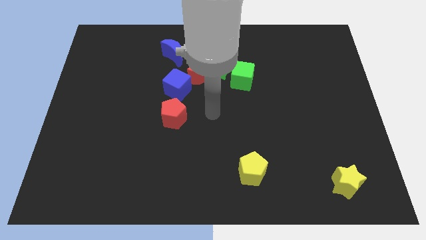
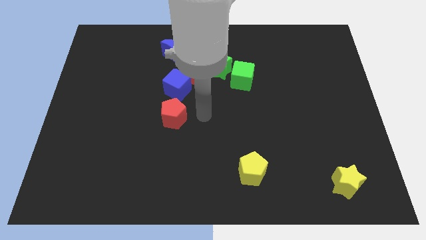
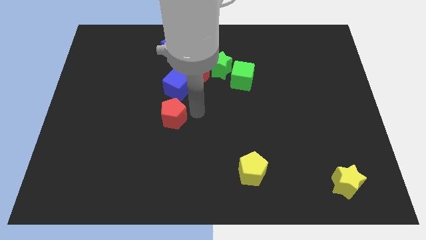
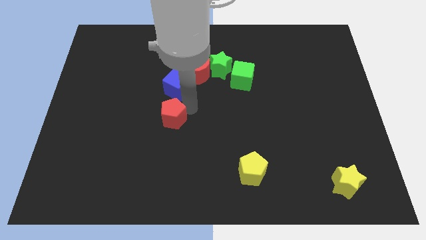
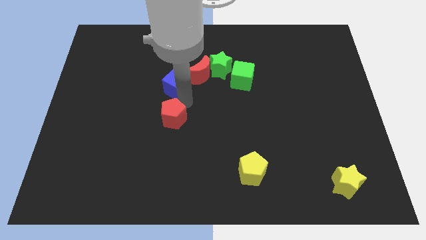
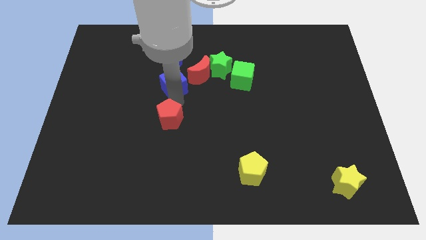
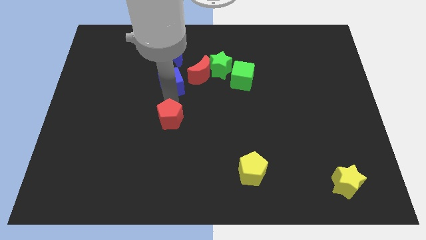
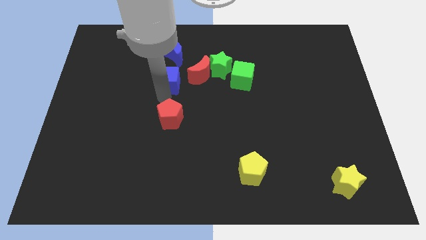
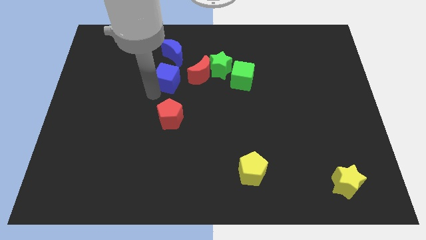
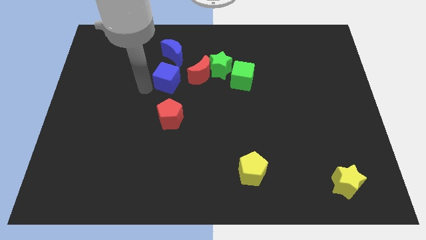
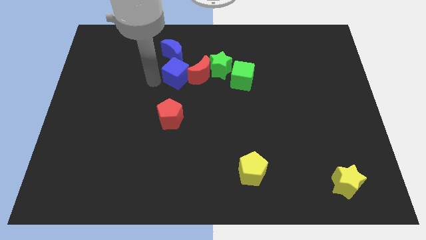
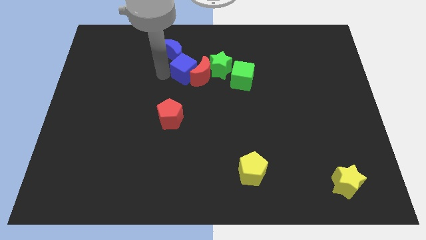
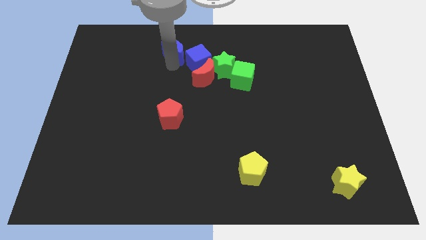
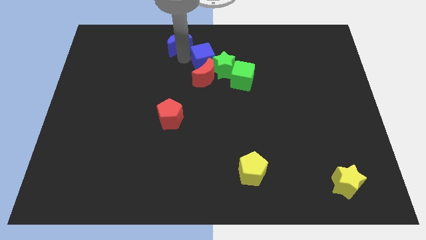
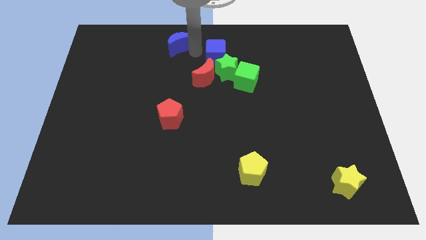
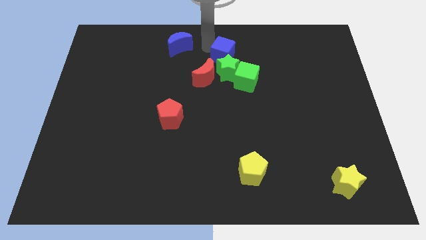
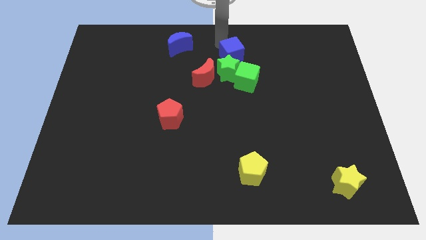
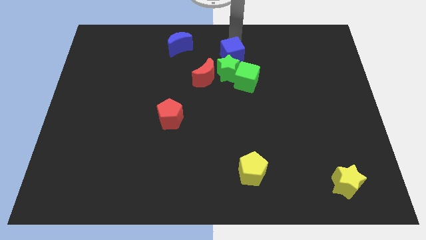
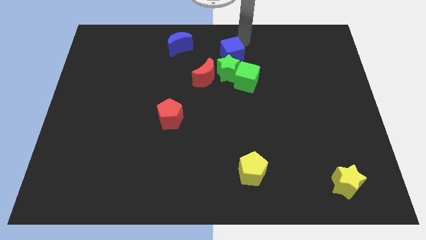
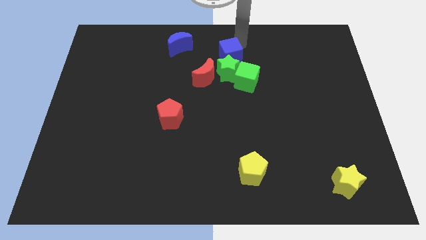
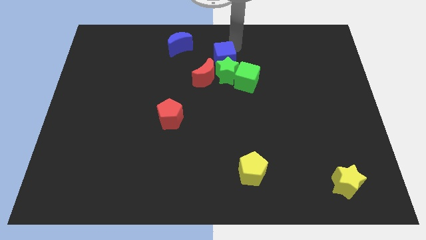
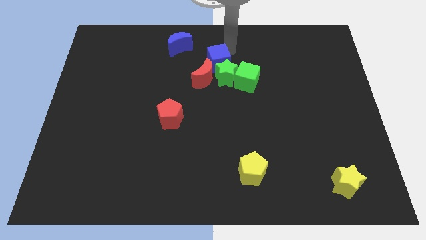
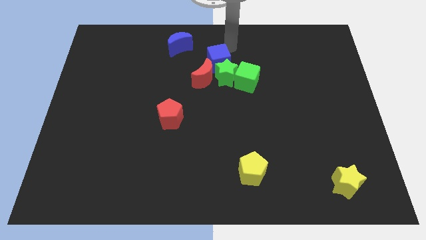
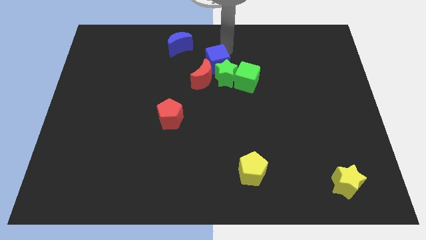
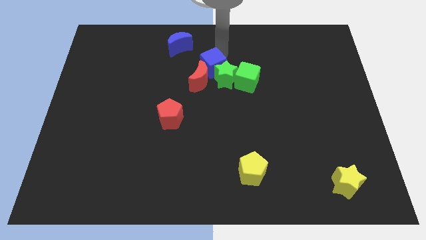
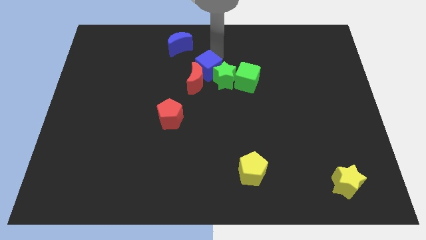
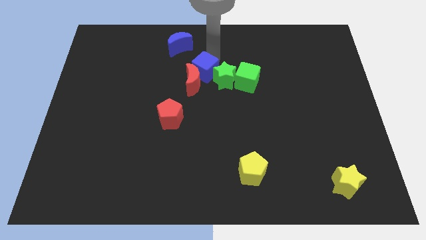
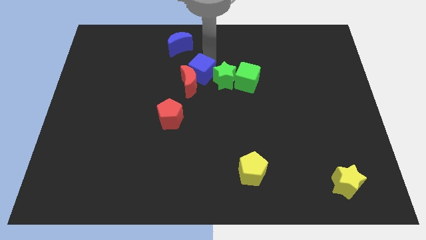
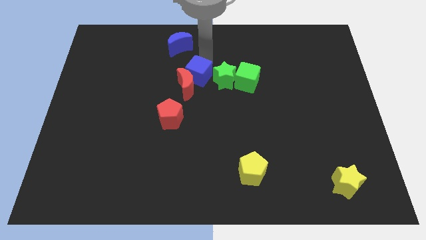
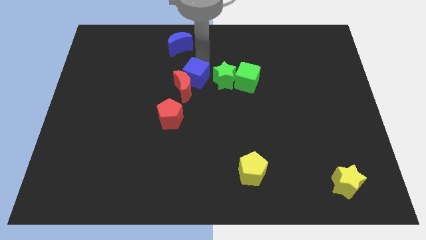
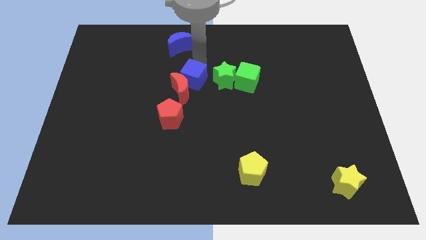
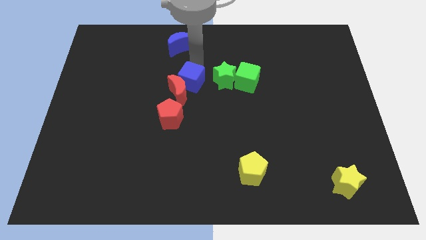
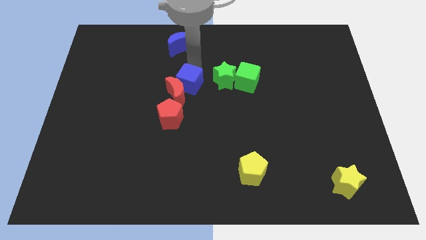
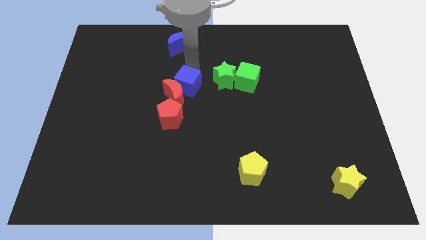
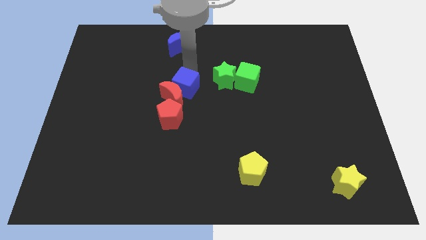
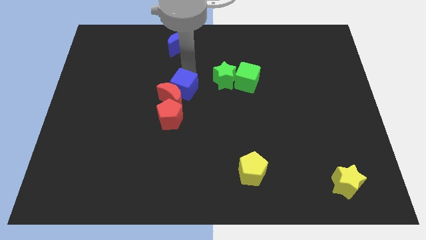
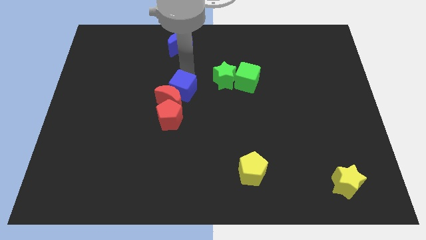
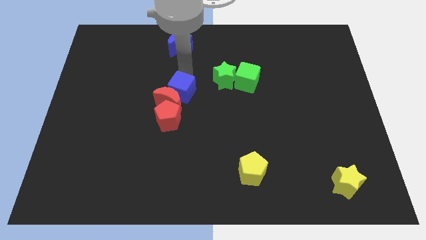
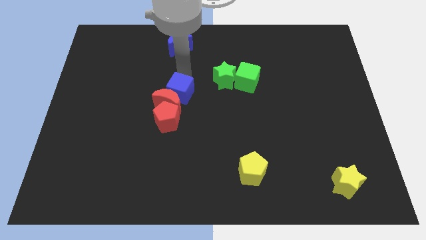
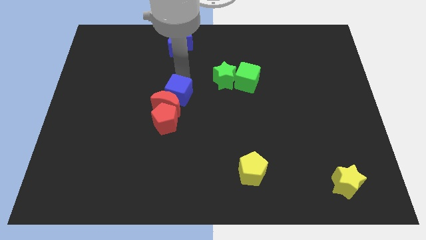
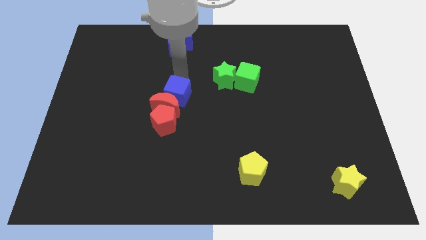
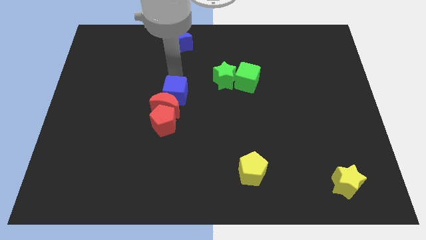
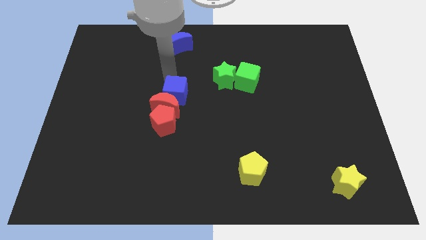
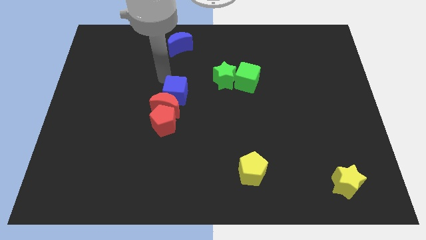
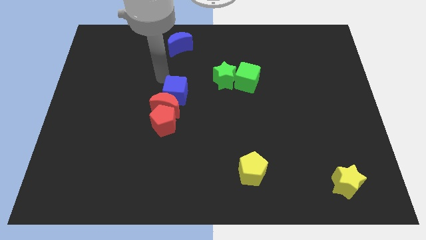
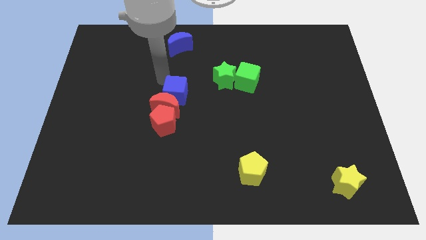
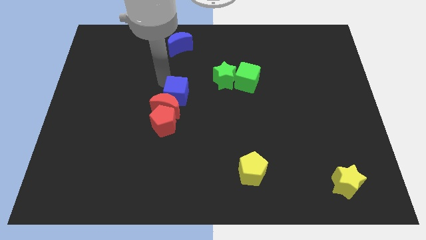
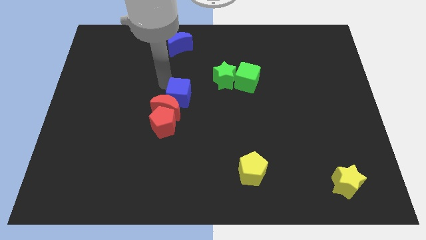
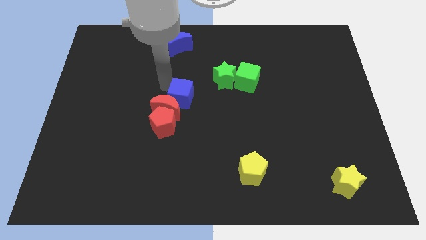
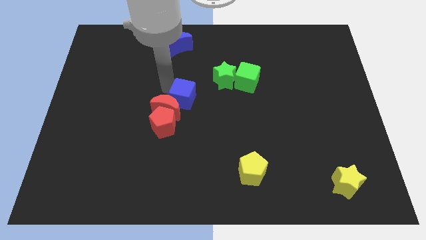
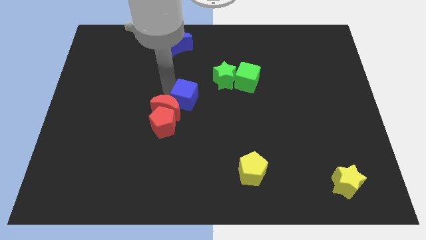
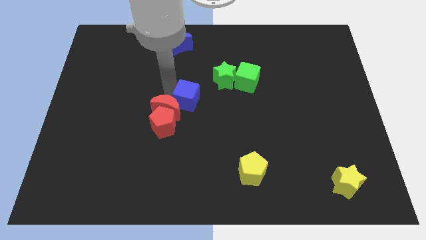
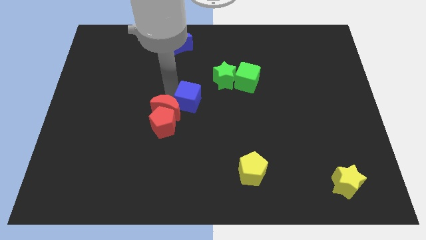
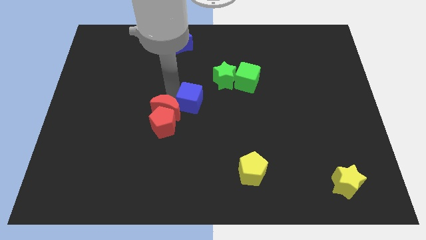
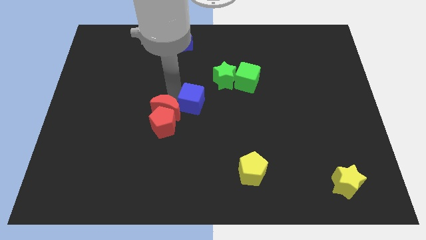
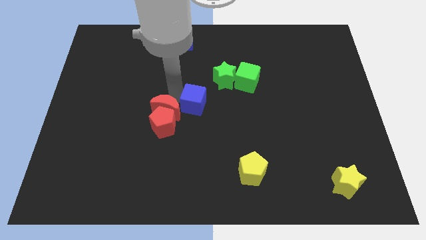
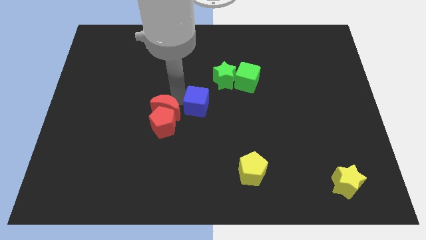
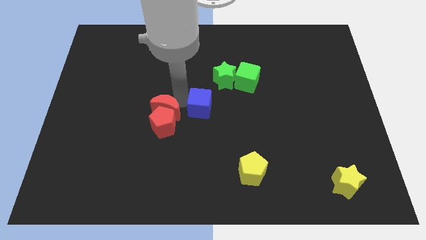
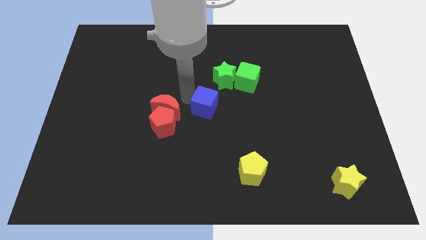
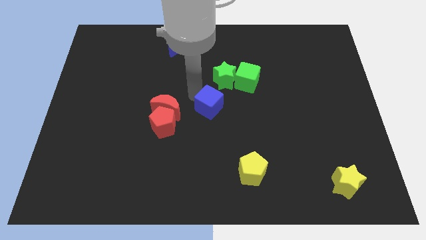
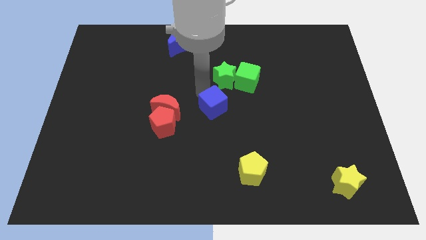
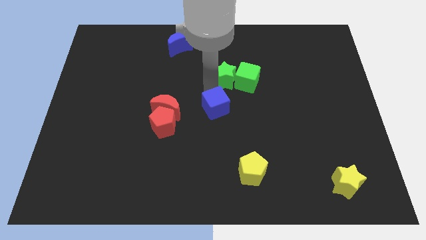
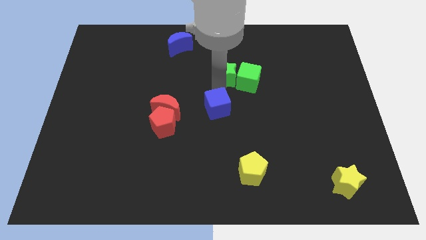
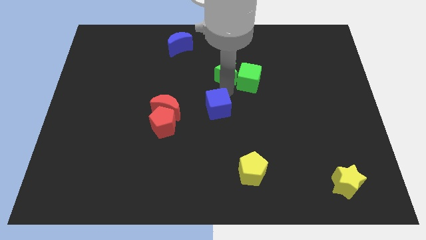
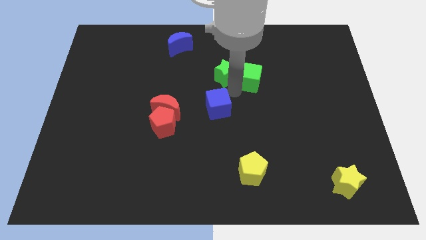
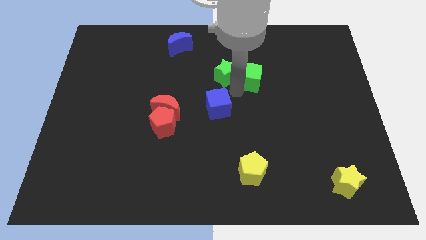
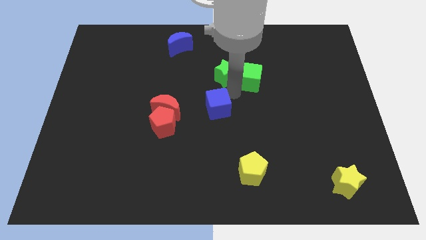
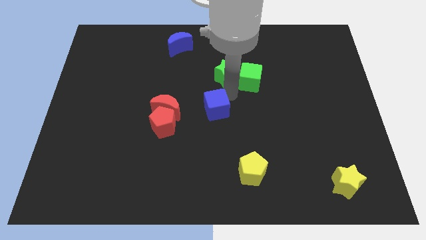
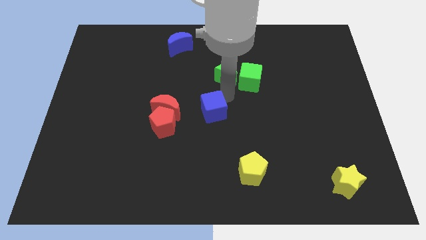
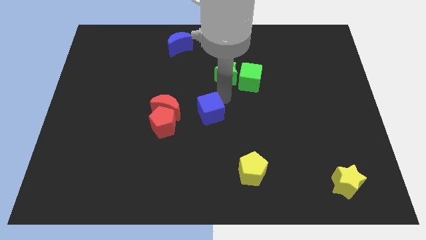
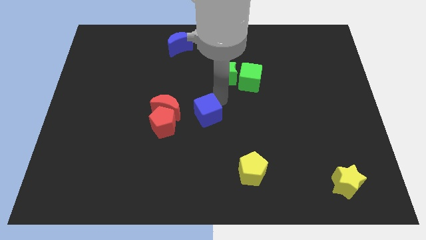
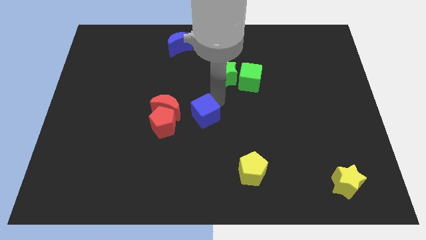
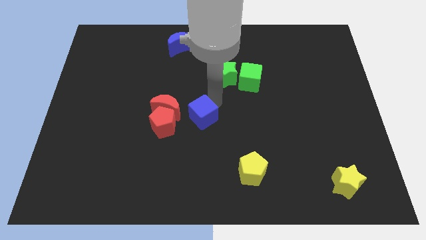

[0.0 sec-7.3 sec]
slightly push the blue cube down

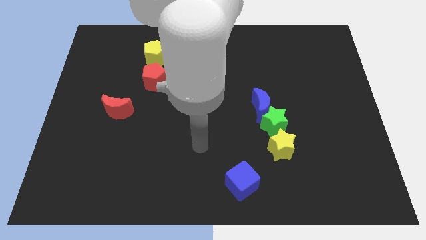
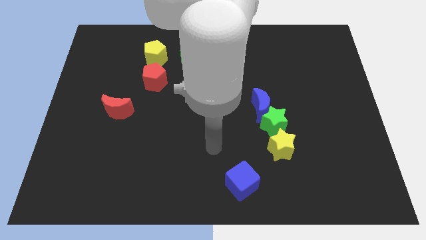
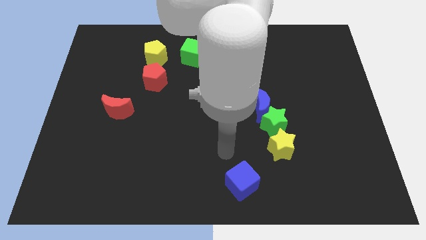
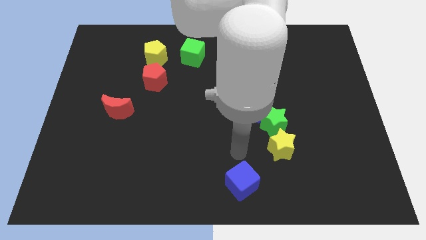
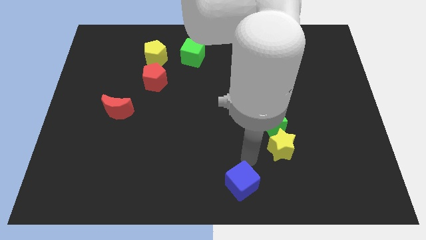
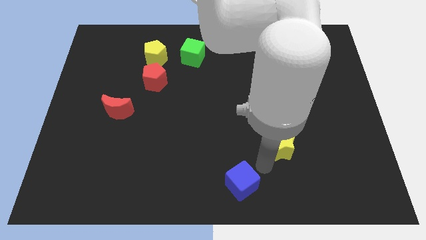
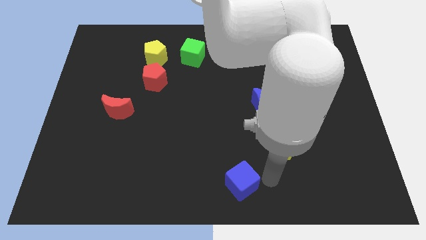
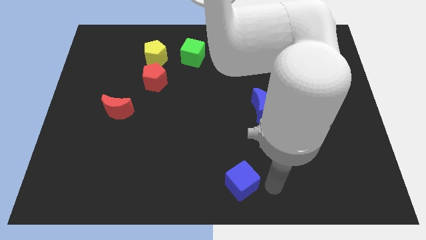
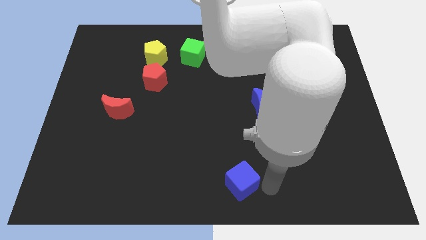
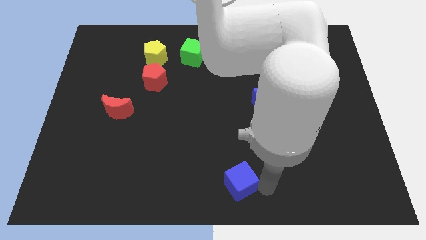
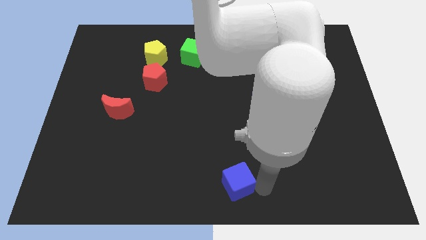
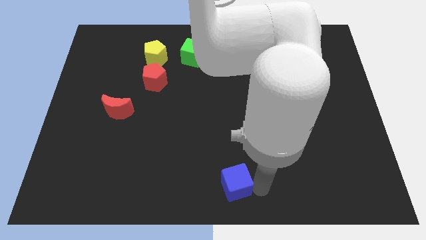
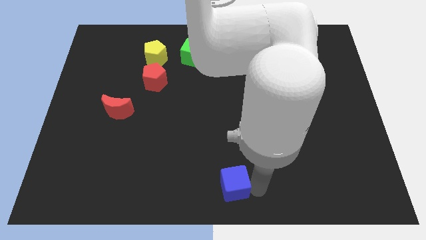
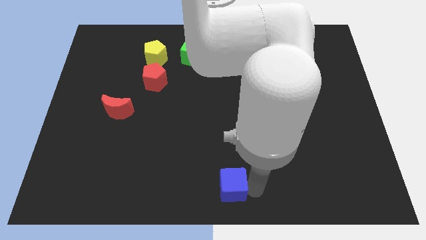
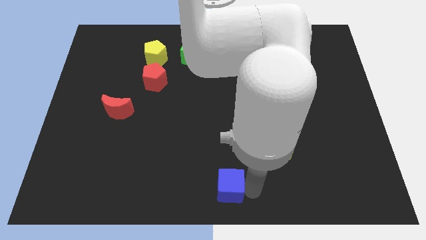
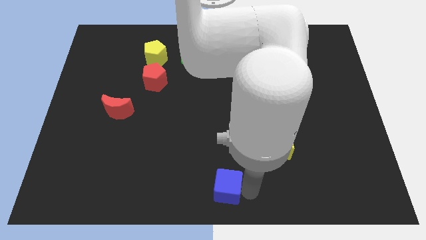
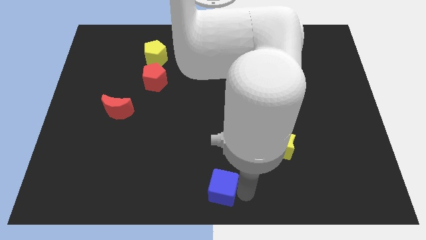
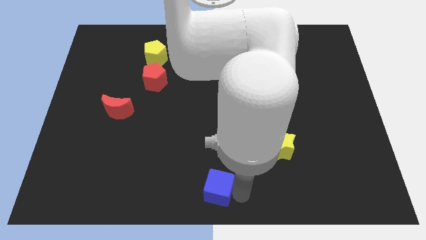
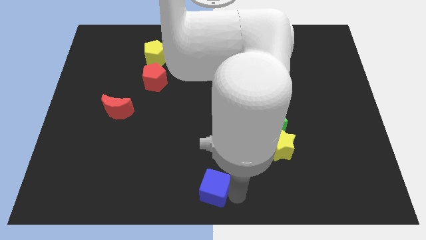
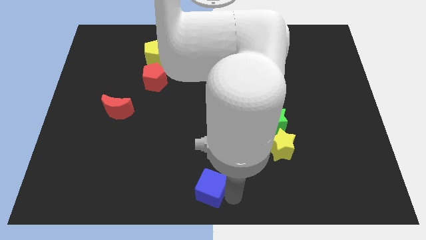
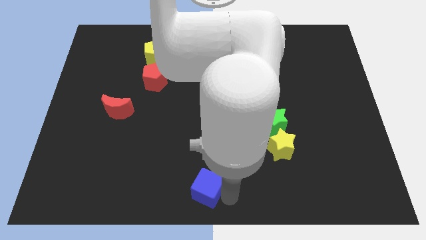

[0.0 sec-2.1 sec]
slide the blue cube to the left a bit
